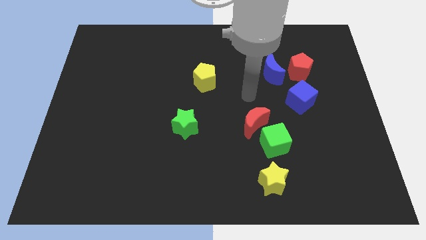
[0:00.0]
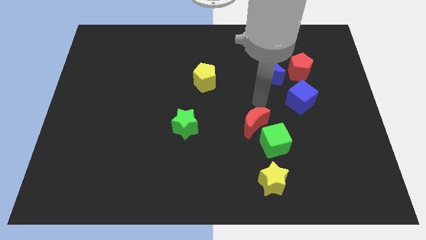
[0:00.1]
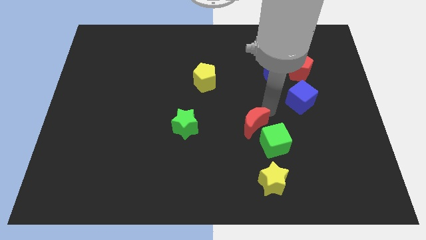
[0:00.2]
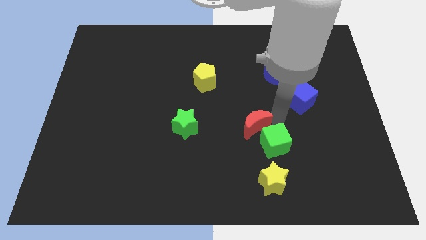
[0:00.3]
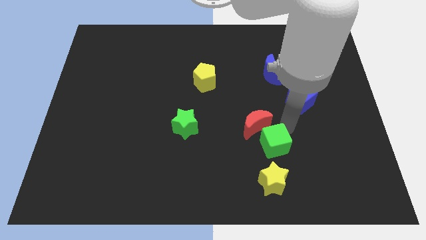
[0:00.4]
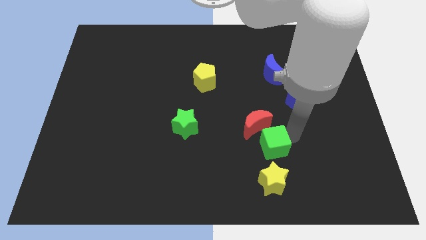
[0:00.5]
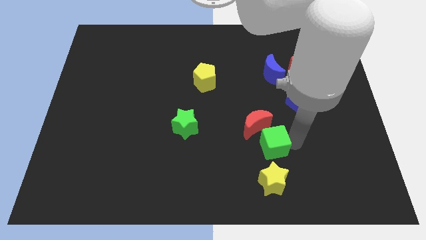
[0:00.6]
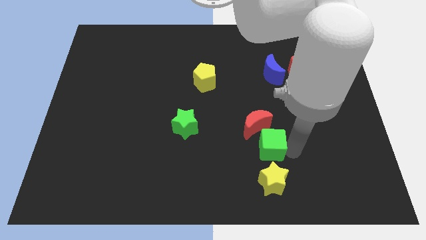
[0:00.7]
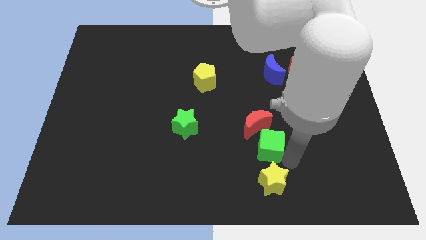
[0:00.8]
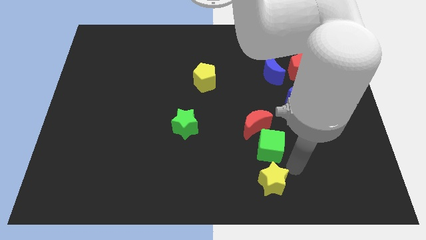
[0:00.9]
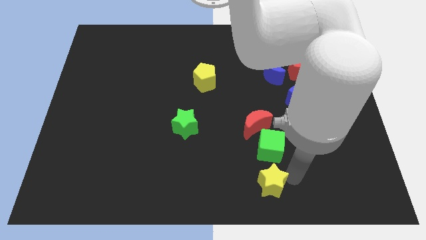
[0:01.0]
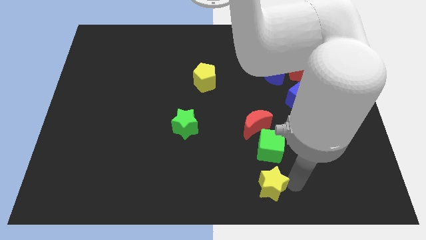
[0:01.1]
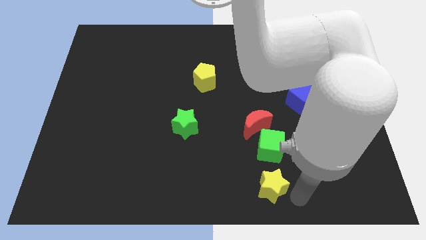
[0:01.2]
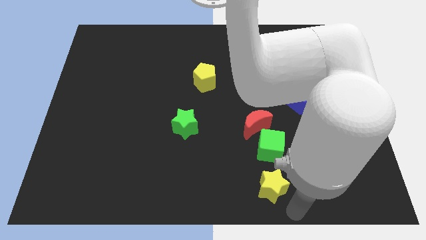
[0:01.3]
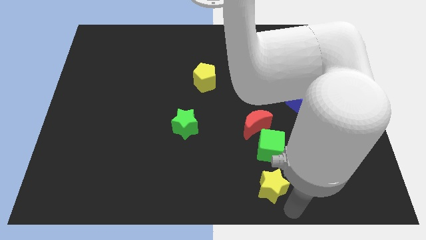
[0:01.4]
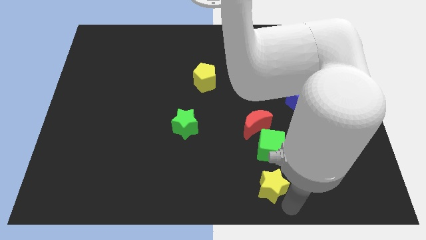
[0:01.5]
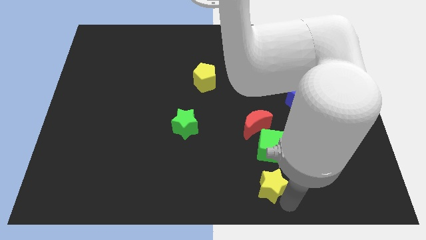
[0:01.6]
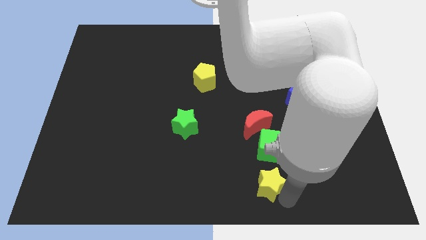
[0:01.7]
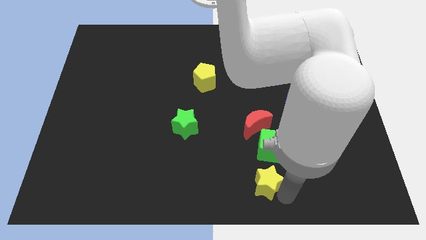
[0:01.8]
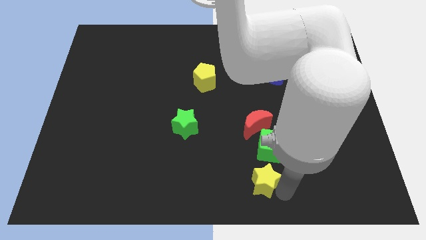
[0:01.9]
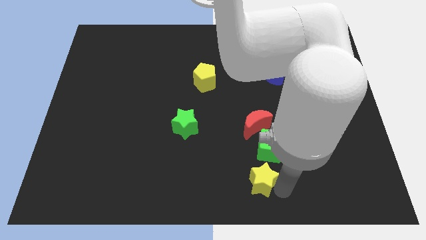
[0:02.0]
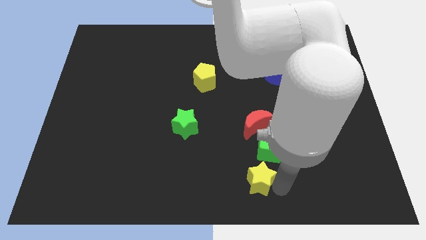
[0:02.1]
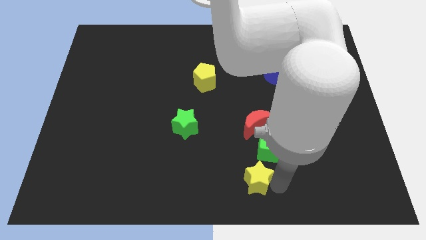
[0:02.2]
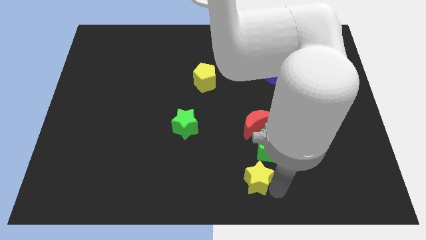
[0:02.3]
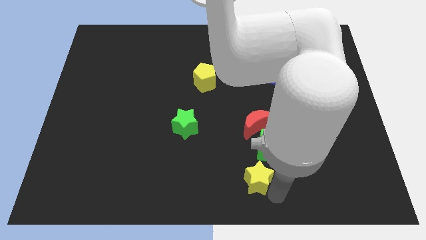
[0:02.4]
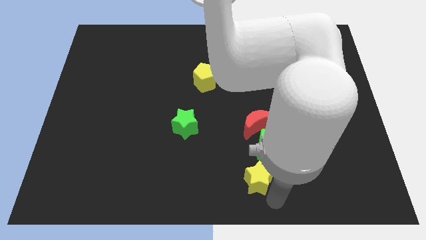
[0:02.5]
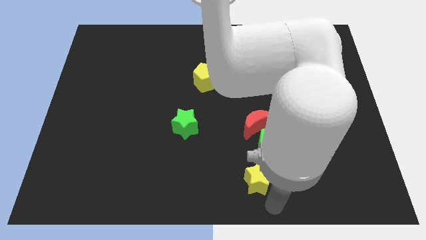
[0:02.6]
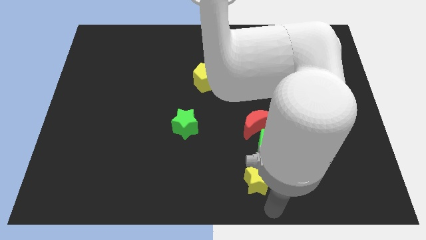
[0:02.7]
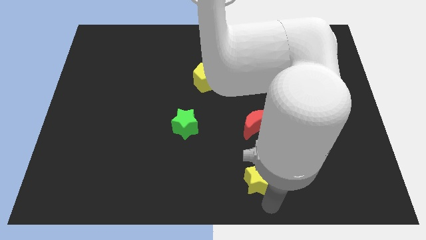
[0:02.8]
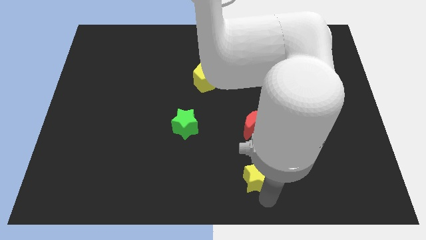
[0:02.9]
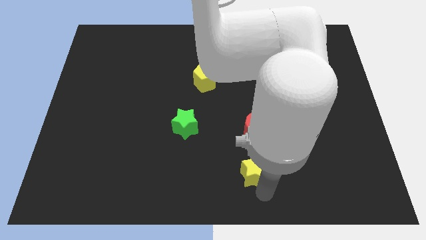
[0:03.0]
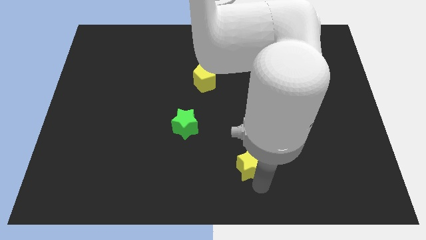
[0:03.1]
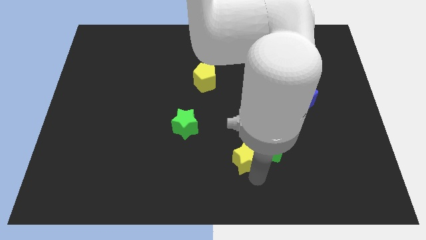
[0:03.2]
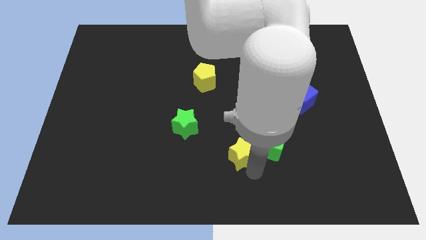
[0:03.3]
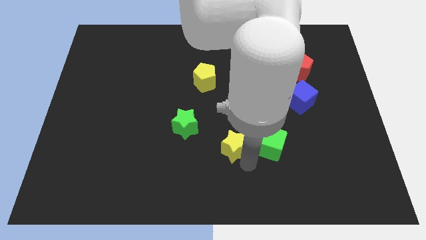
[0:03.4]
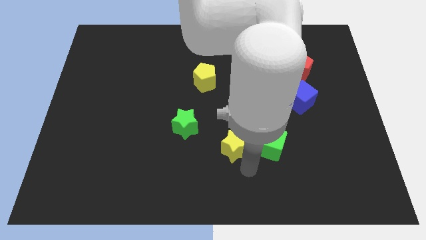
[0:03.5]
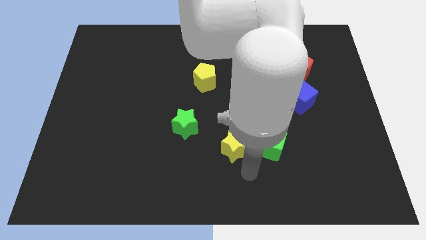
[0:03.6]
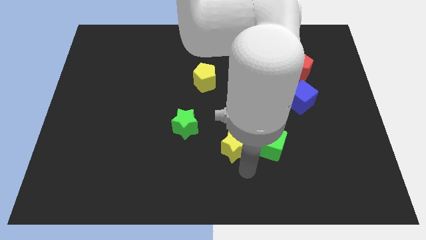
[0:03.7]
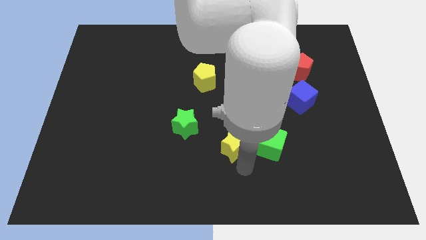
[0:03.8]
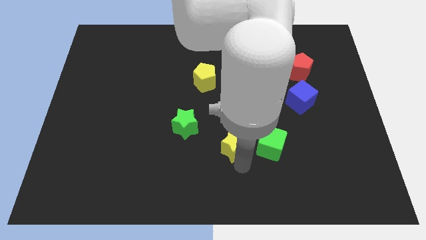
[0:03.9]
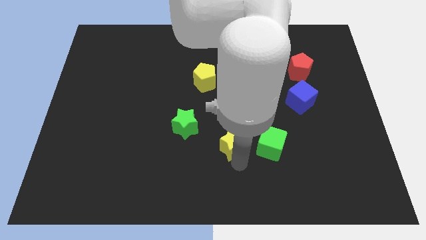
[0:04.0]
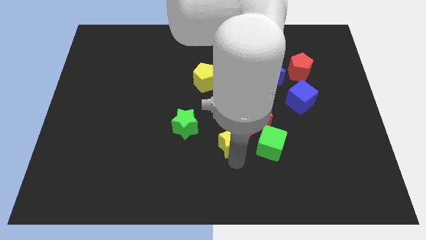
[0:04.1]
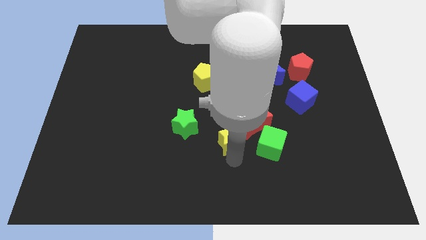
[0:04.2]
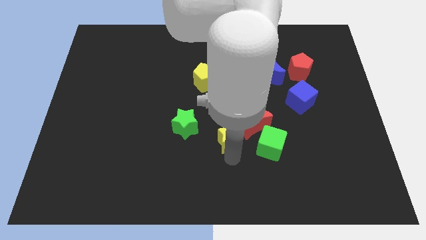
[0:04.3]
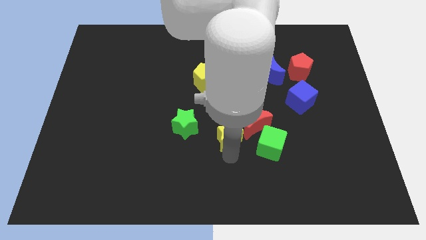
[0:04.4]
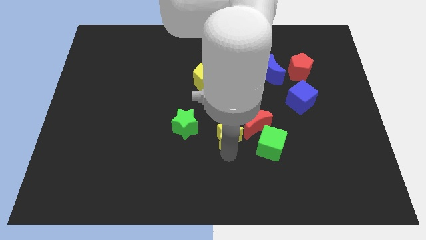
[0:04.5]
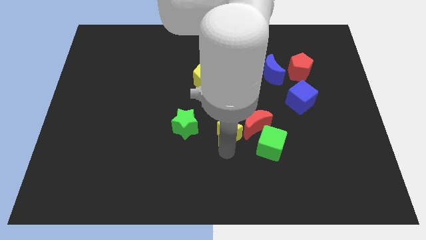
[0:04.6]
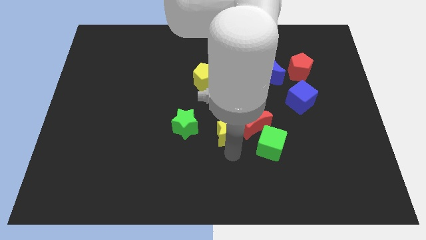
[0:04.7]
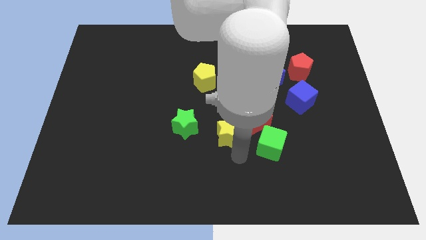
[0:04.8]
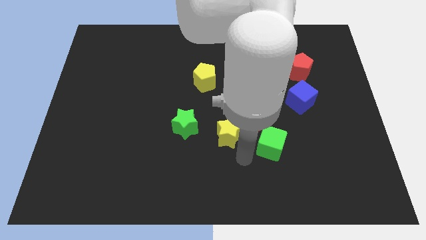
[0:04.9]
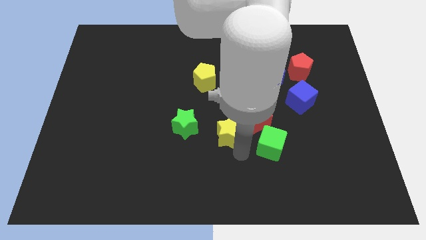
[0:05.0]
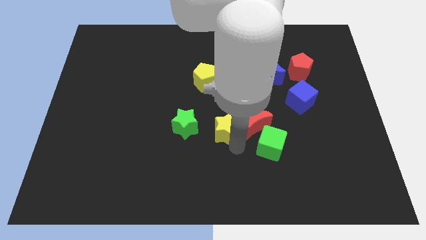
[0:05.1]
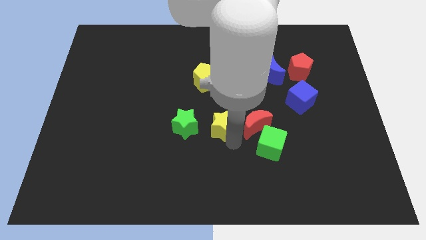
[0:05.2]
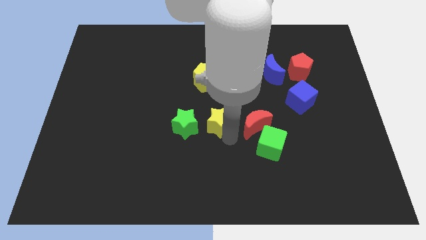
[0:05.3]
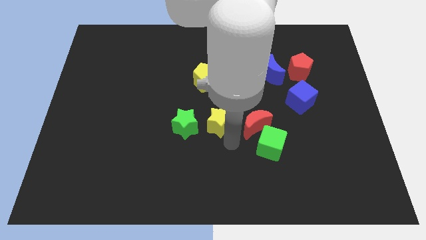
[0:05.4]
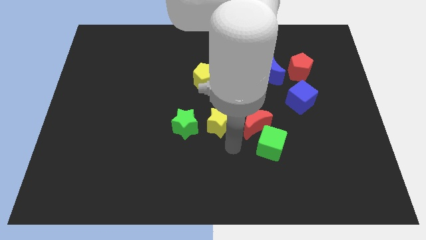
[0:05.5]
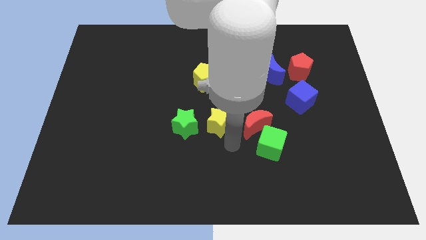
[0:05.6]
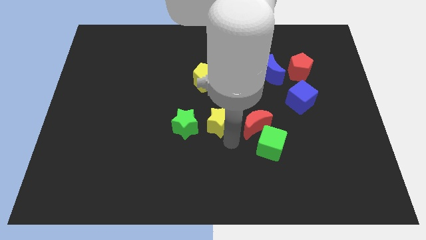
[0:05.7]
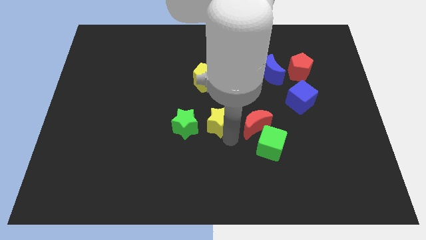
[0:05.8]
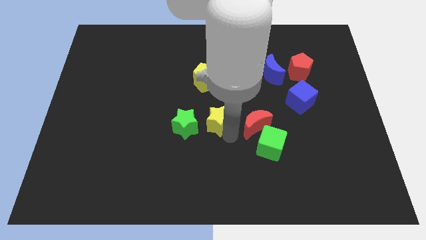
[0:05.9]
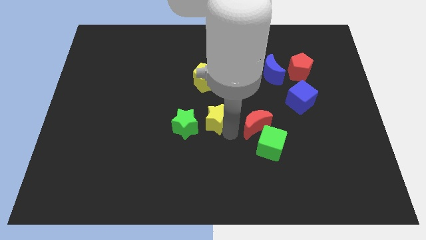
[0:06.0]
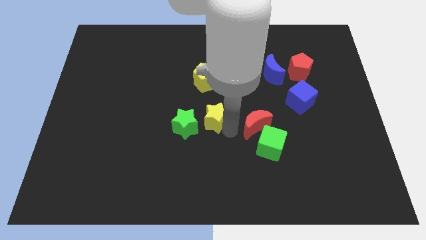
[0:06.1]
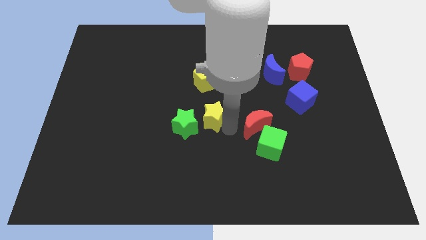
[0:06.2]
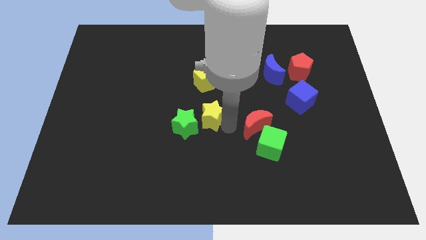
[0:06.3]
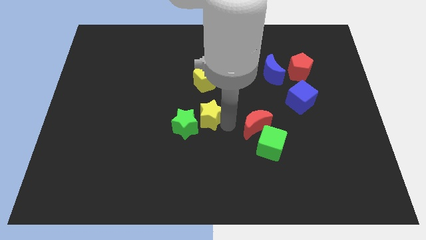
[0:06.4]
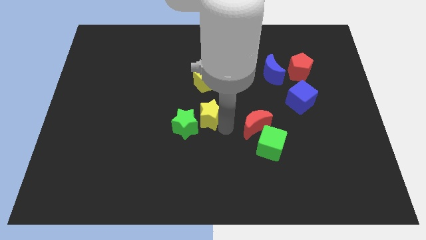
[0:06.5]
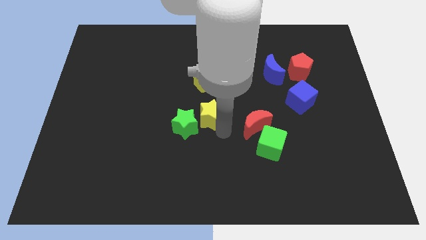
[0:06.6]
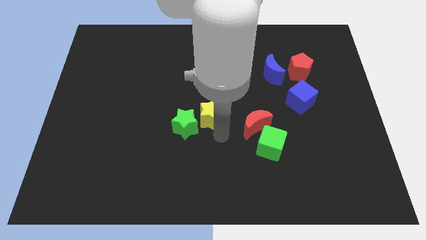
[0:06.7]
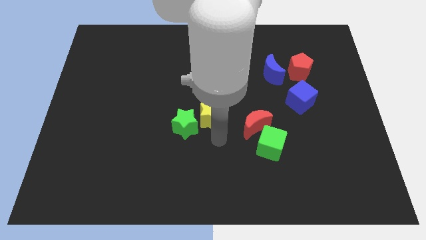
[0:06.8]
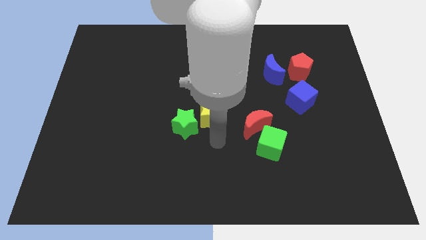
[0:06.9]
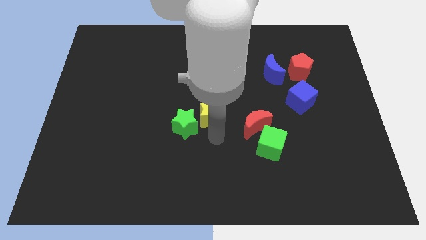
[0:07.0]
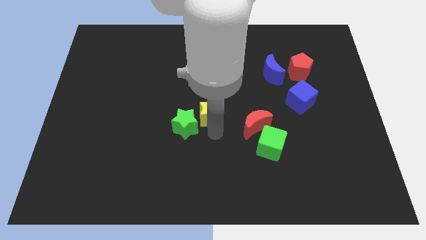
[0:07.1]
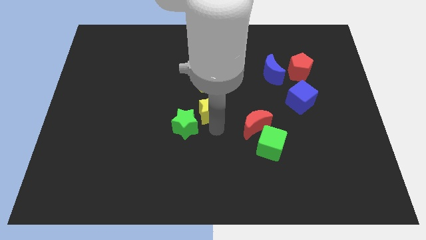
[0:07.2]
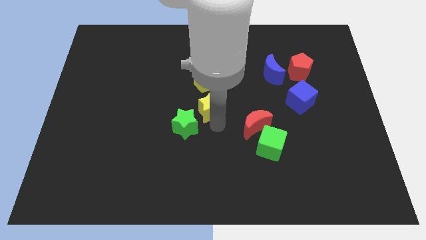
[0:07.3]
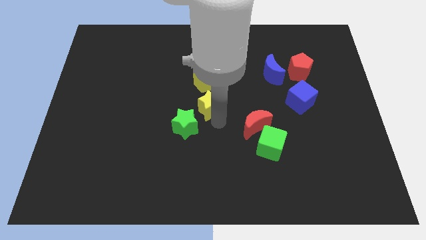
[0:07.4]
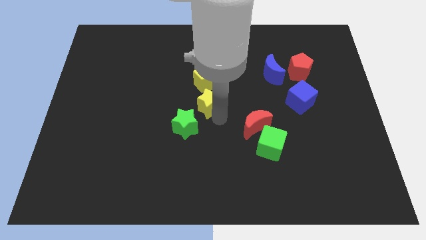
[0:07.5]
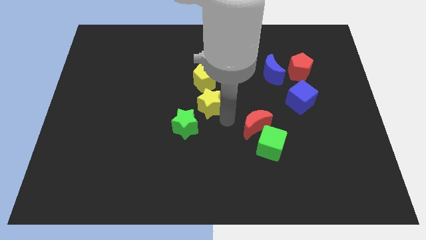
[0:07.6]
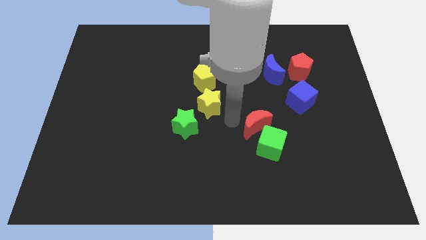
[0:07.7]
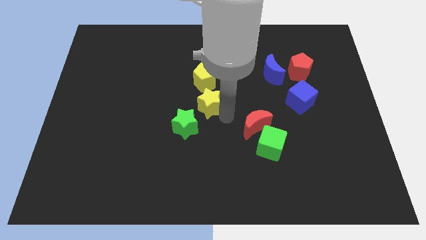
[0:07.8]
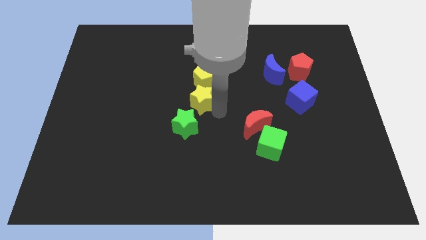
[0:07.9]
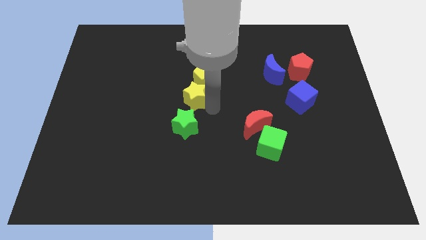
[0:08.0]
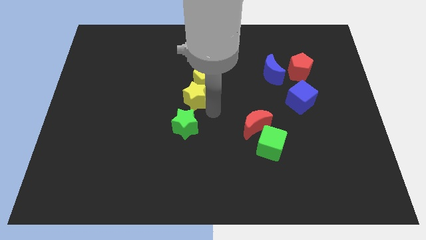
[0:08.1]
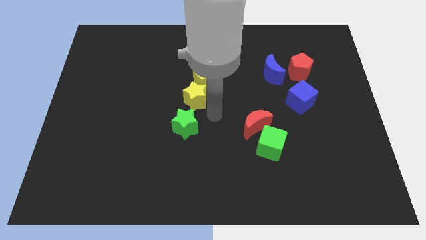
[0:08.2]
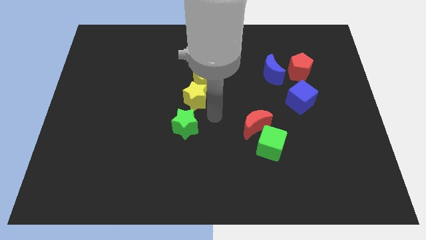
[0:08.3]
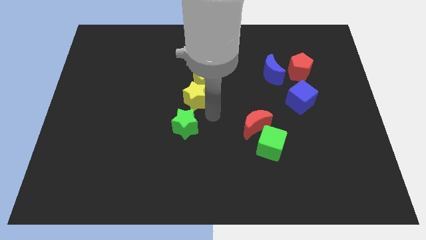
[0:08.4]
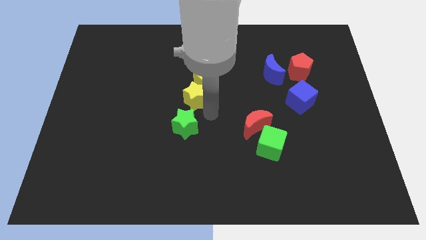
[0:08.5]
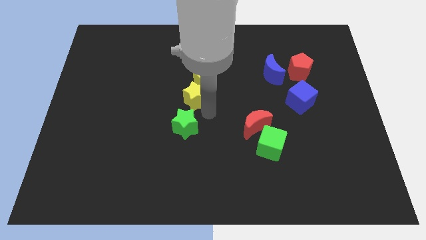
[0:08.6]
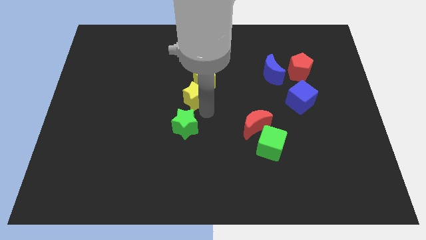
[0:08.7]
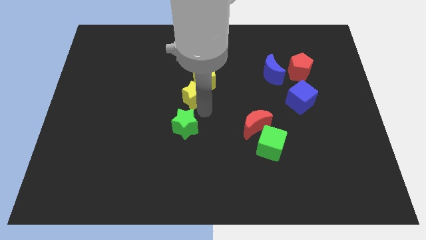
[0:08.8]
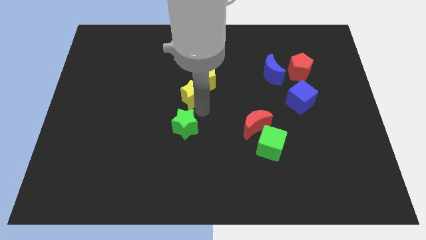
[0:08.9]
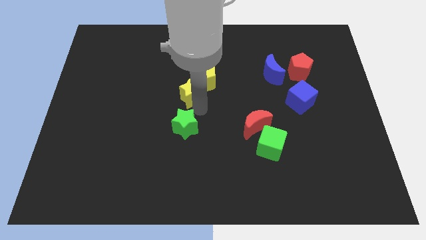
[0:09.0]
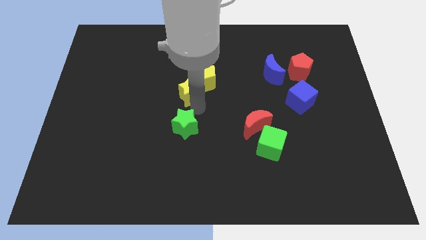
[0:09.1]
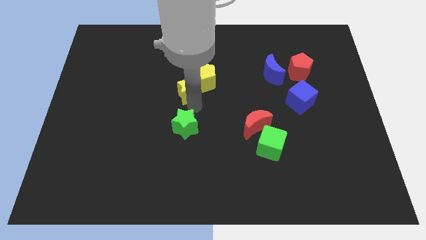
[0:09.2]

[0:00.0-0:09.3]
put the yellow star to the left of the yellow pentagon
